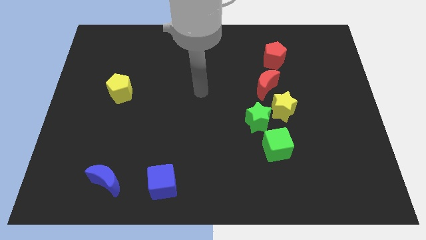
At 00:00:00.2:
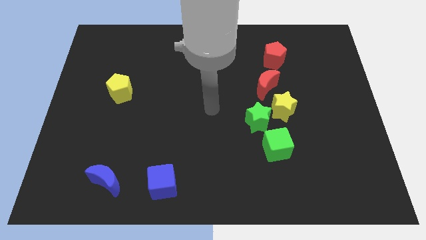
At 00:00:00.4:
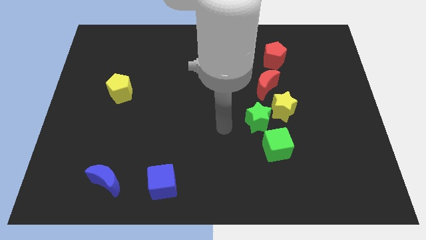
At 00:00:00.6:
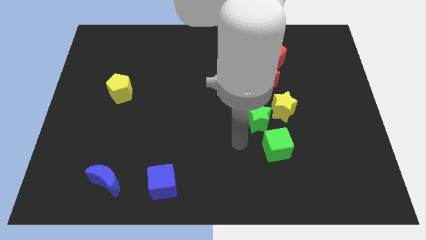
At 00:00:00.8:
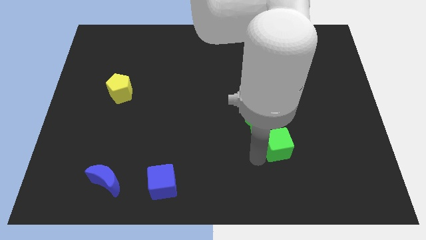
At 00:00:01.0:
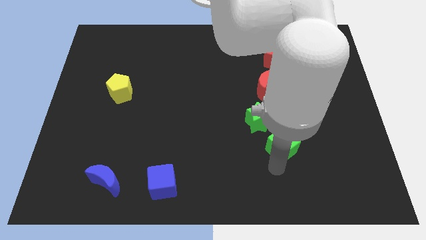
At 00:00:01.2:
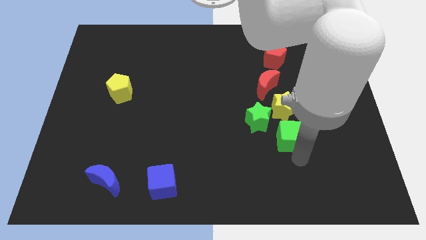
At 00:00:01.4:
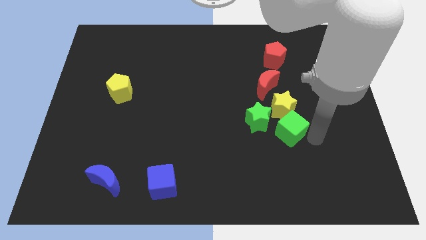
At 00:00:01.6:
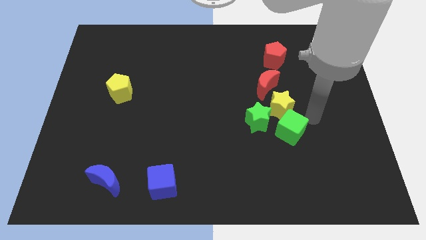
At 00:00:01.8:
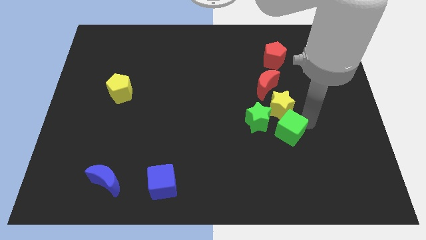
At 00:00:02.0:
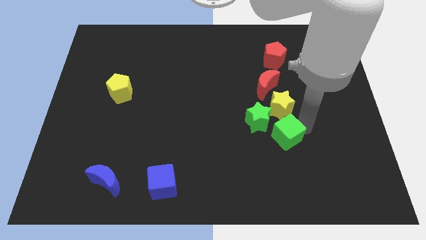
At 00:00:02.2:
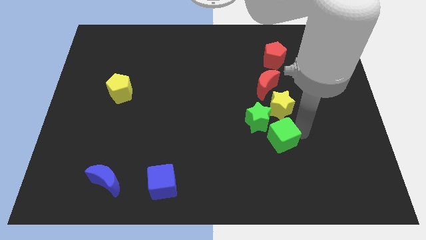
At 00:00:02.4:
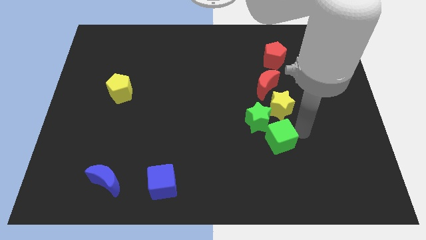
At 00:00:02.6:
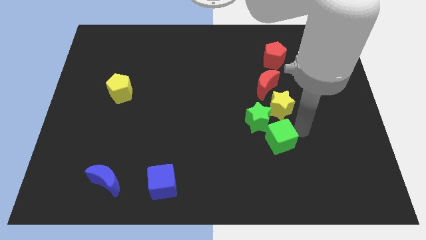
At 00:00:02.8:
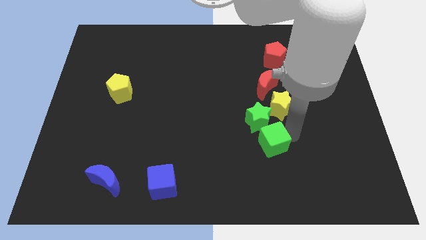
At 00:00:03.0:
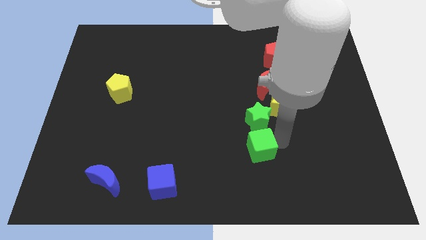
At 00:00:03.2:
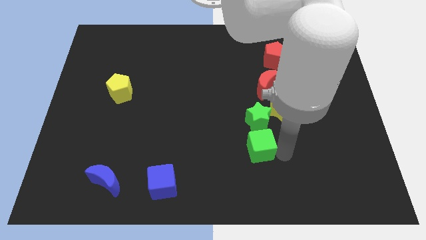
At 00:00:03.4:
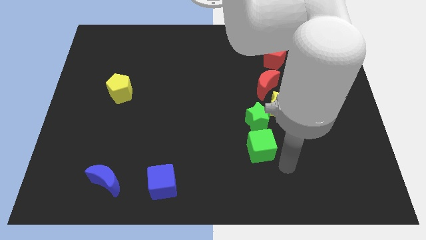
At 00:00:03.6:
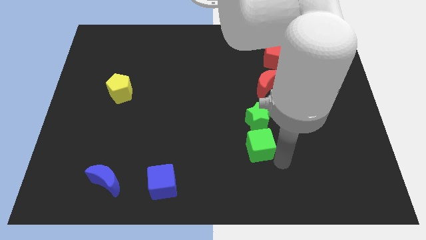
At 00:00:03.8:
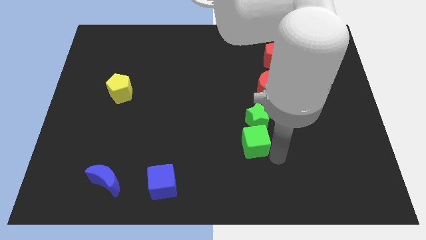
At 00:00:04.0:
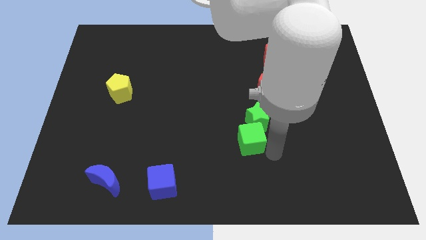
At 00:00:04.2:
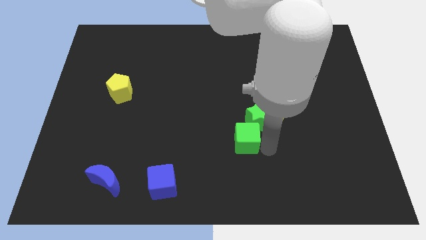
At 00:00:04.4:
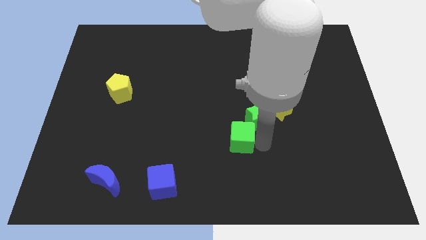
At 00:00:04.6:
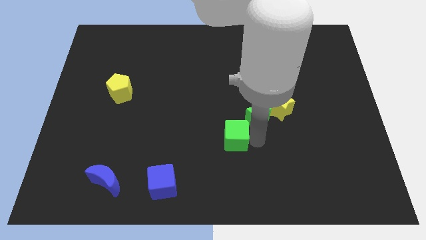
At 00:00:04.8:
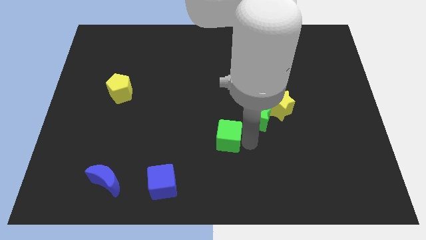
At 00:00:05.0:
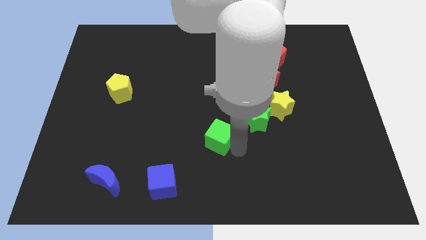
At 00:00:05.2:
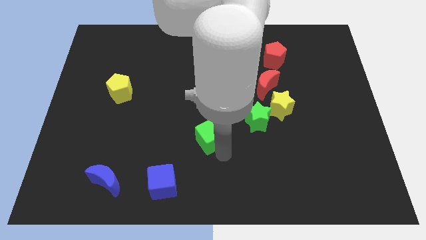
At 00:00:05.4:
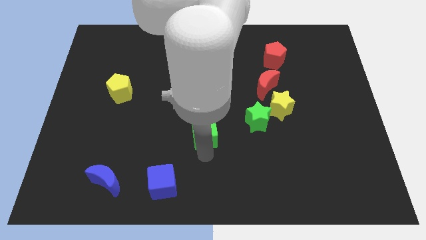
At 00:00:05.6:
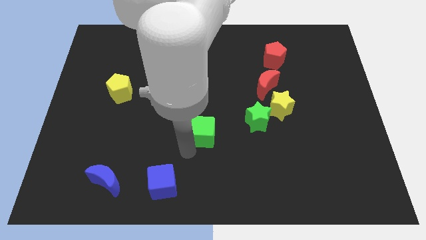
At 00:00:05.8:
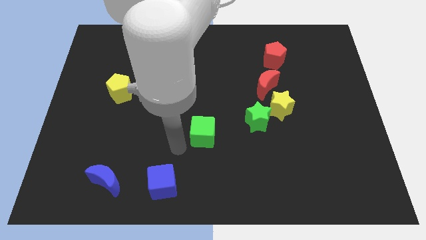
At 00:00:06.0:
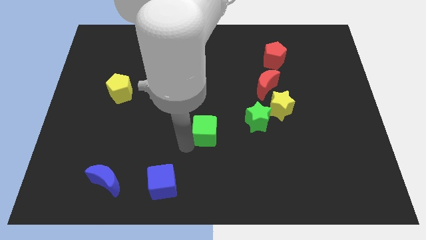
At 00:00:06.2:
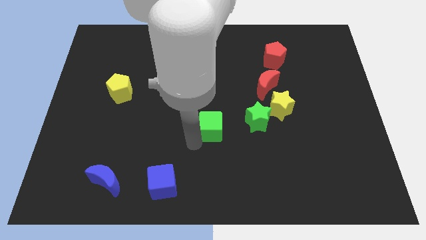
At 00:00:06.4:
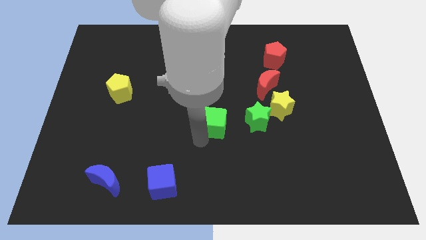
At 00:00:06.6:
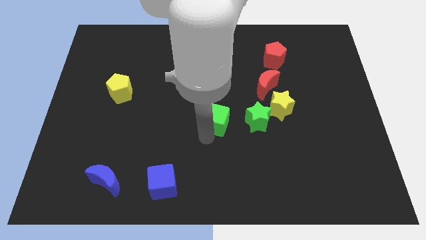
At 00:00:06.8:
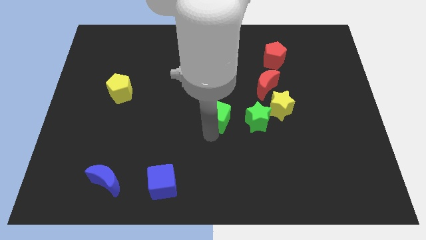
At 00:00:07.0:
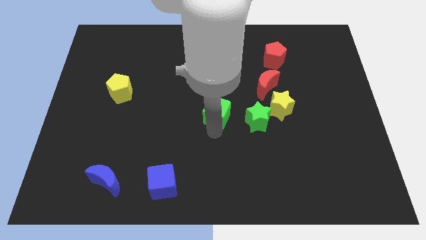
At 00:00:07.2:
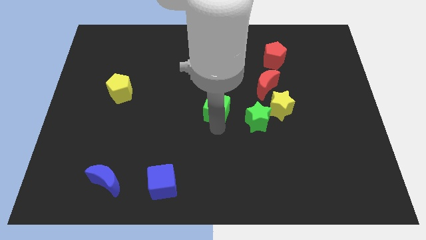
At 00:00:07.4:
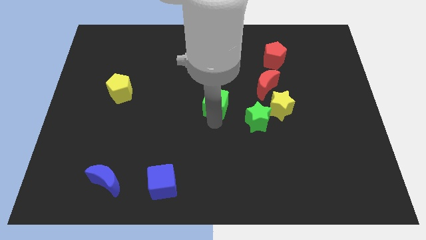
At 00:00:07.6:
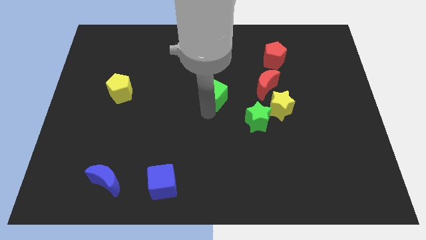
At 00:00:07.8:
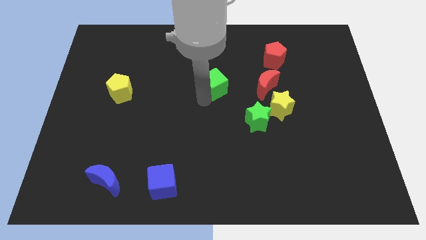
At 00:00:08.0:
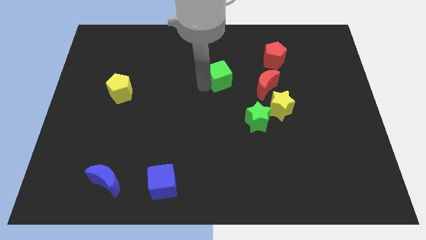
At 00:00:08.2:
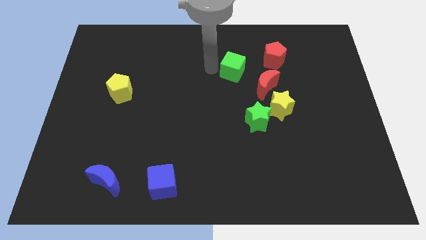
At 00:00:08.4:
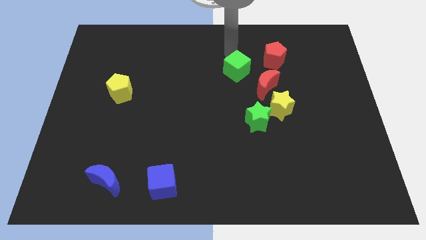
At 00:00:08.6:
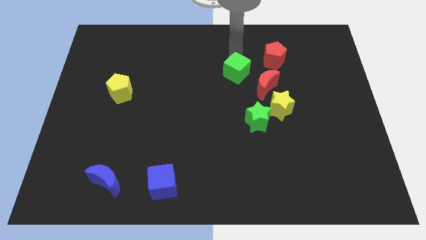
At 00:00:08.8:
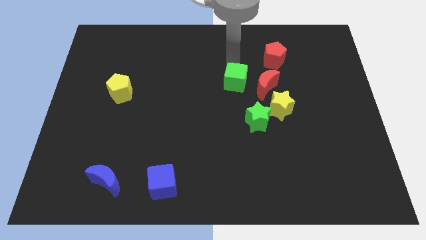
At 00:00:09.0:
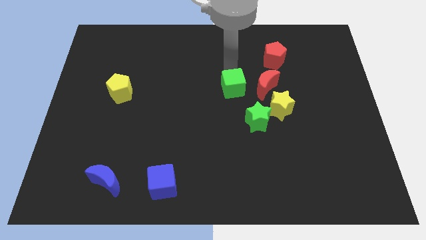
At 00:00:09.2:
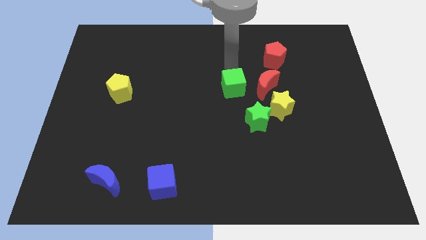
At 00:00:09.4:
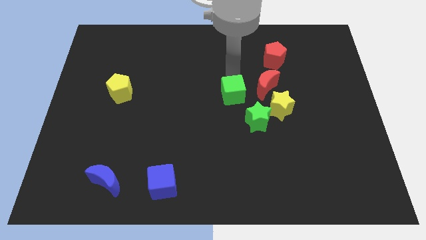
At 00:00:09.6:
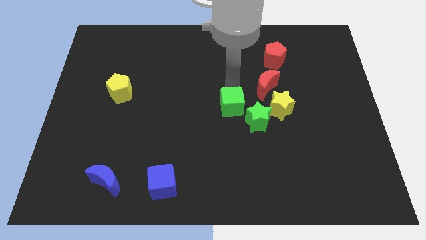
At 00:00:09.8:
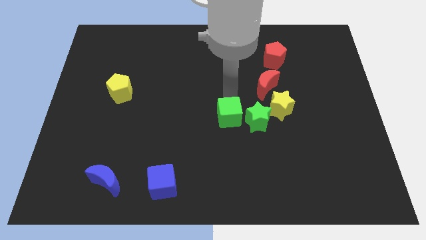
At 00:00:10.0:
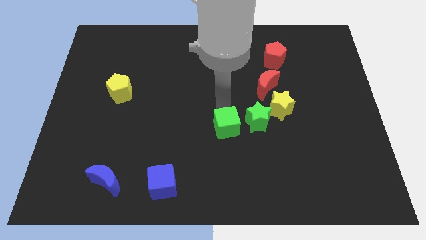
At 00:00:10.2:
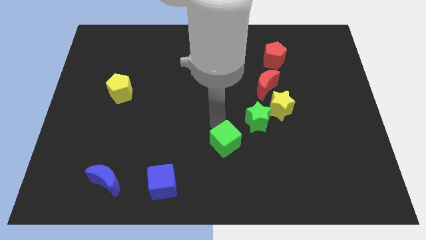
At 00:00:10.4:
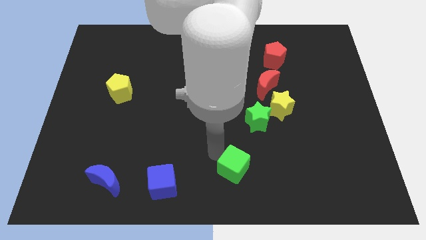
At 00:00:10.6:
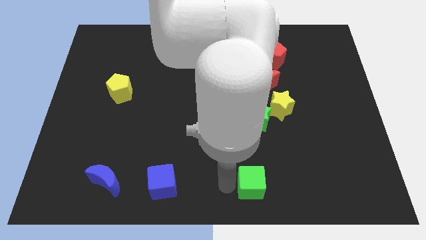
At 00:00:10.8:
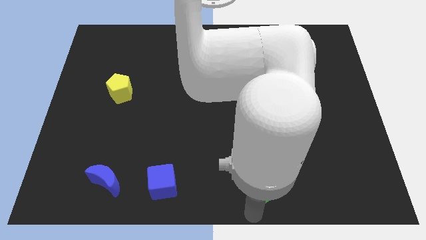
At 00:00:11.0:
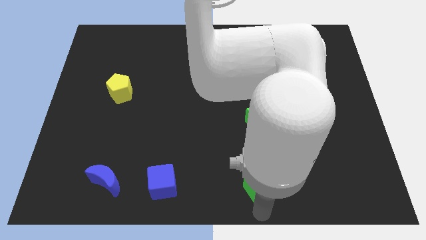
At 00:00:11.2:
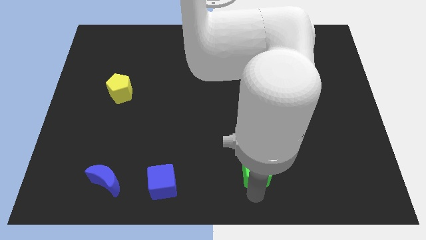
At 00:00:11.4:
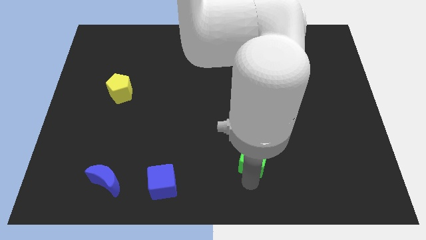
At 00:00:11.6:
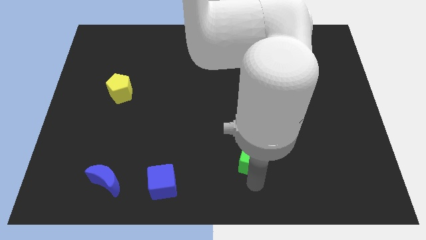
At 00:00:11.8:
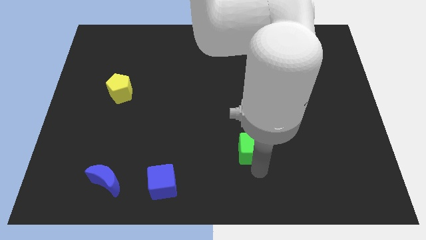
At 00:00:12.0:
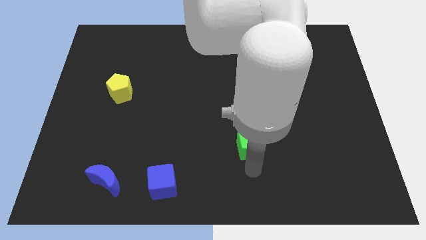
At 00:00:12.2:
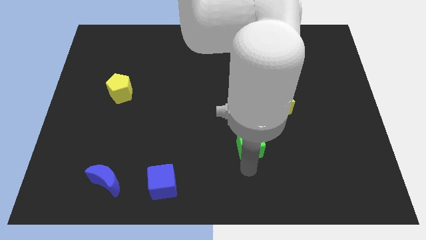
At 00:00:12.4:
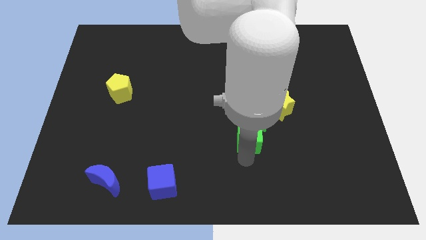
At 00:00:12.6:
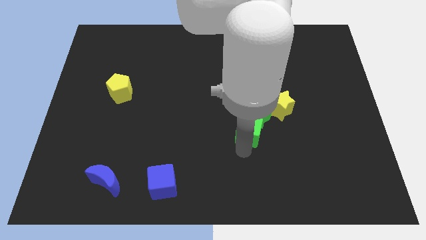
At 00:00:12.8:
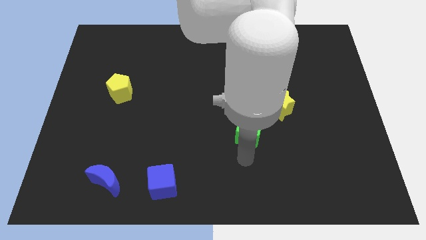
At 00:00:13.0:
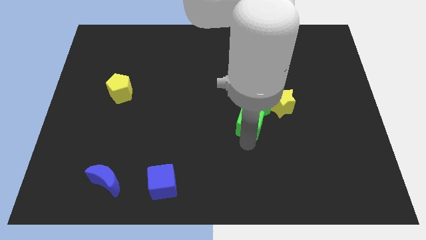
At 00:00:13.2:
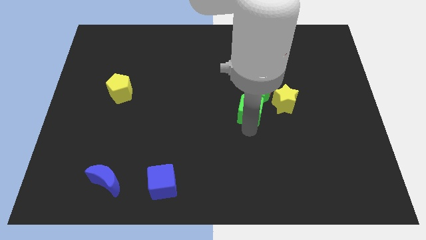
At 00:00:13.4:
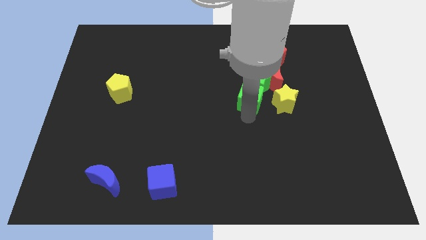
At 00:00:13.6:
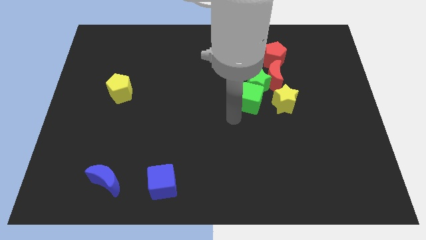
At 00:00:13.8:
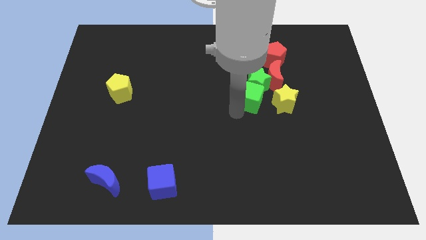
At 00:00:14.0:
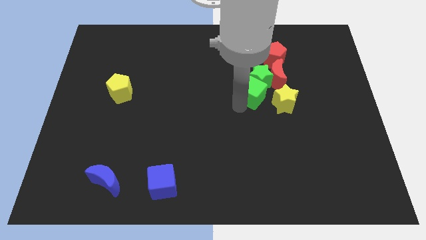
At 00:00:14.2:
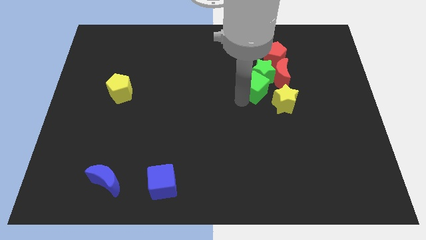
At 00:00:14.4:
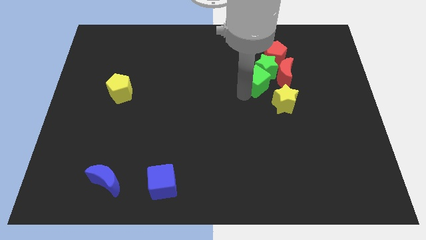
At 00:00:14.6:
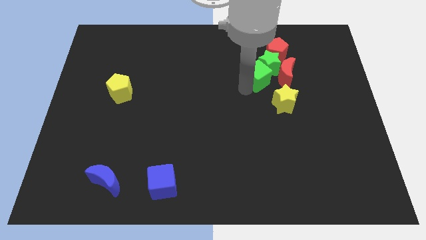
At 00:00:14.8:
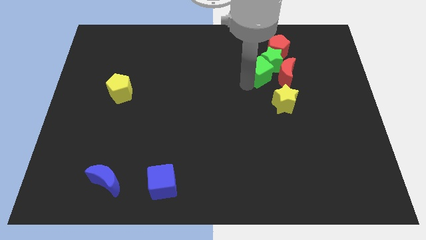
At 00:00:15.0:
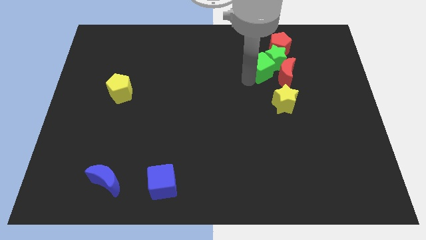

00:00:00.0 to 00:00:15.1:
slide the green cube next to the red moon
